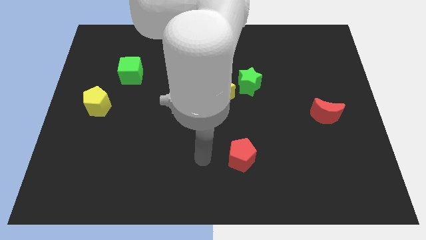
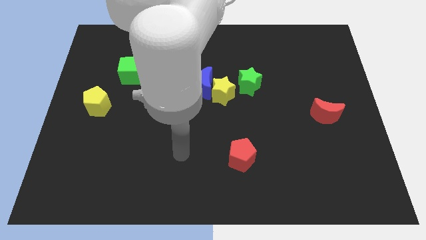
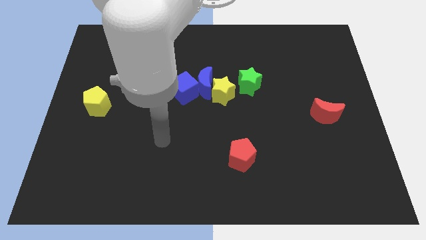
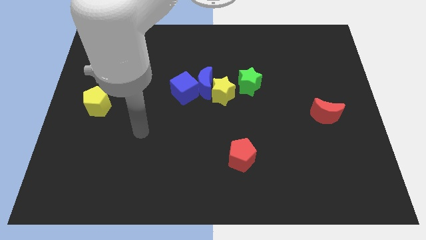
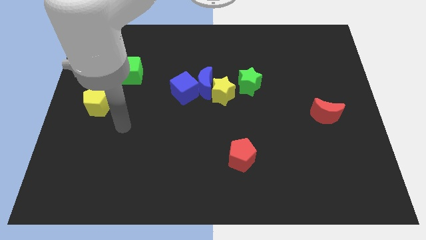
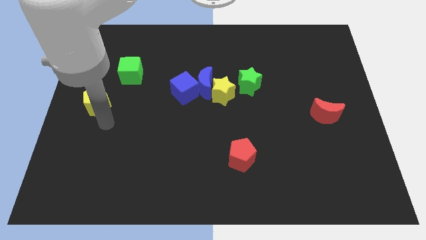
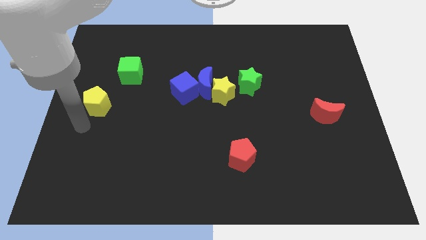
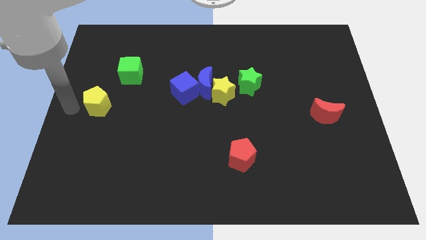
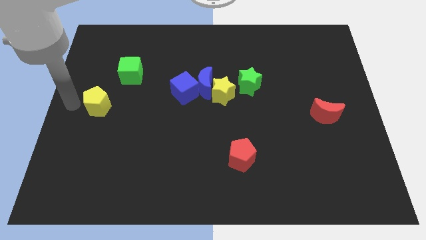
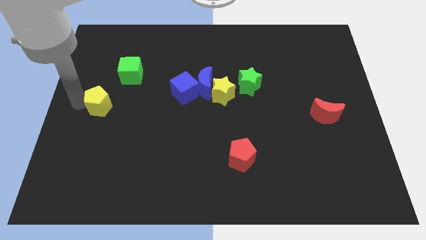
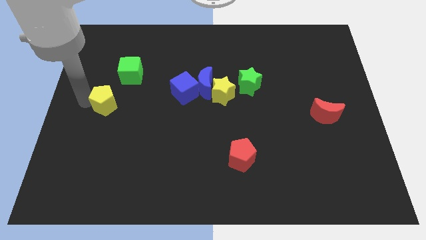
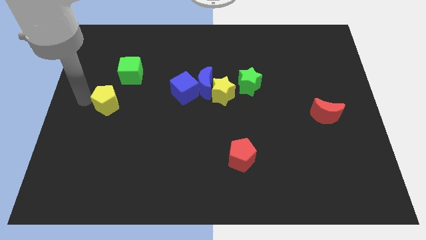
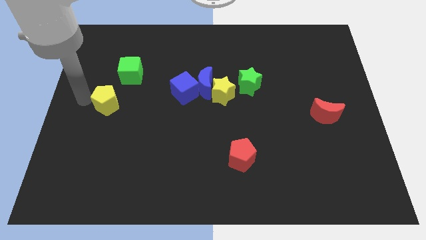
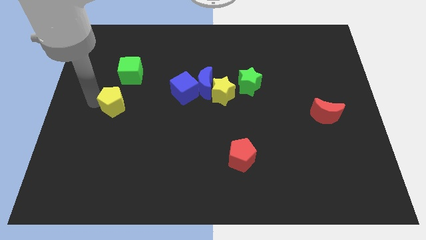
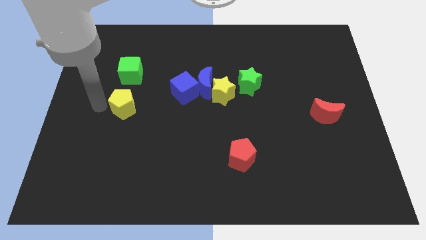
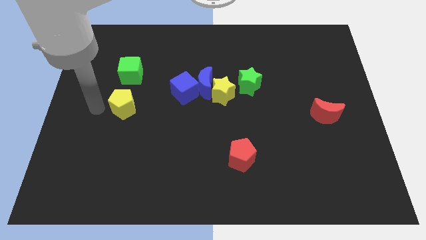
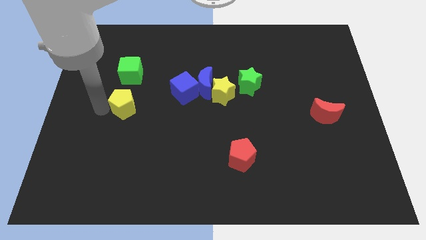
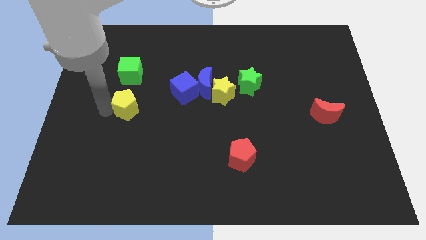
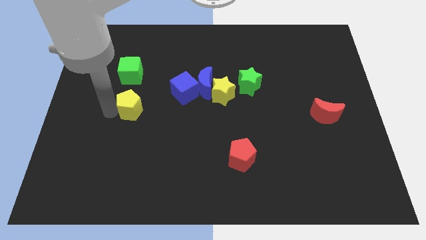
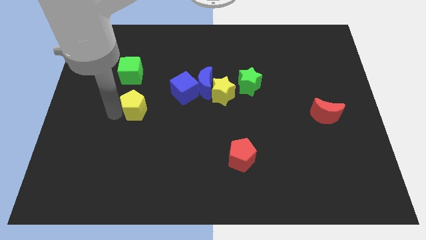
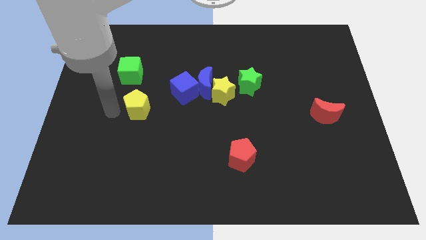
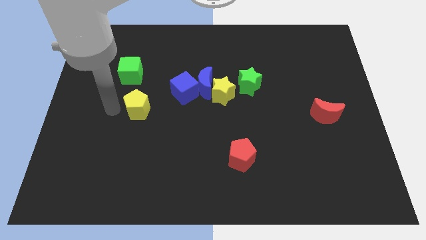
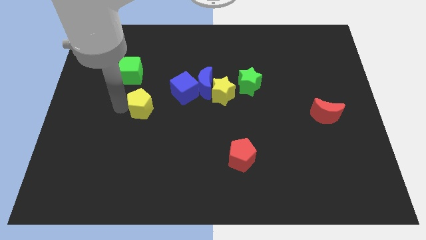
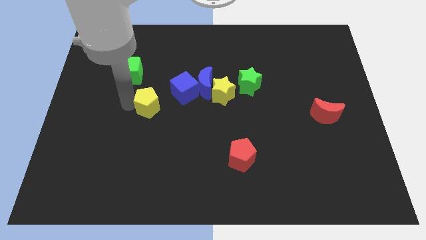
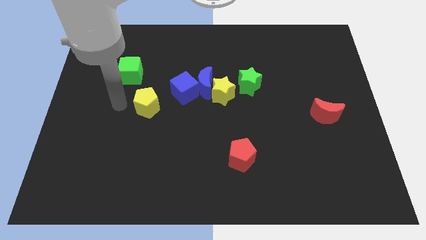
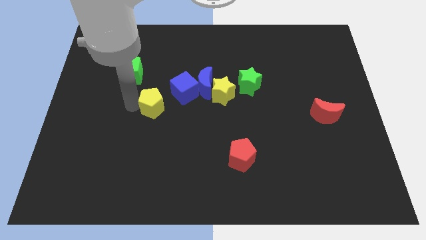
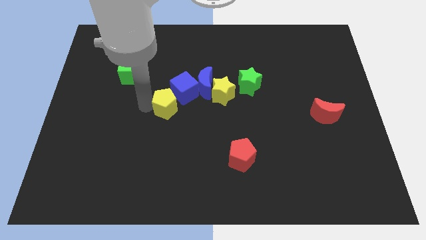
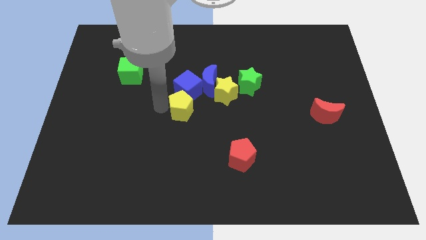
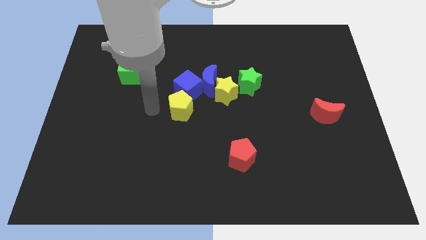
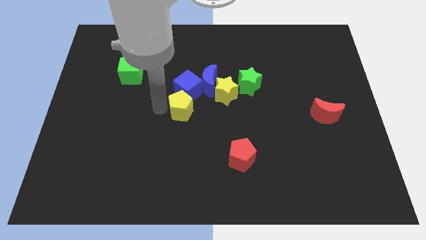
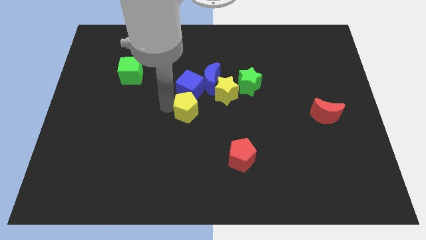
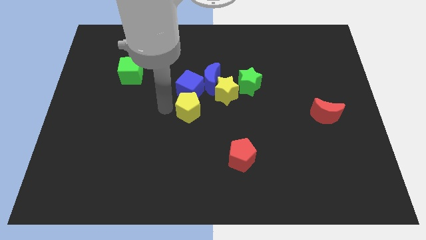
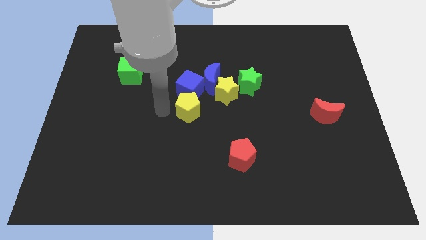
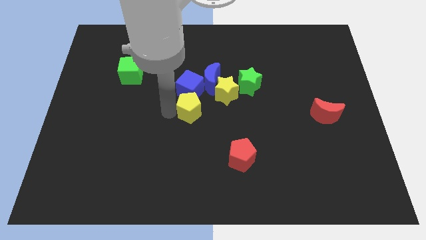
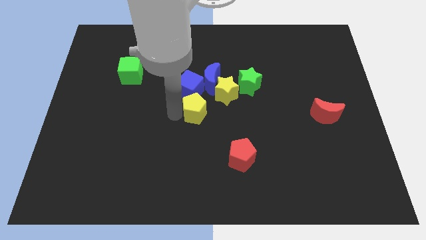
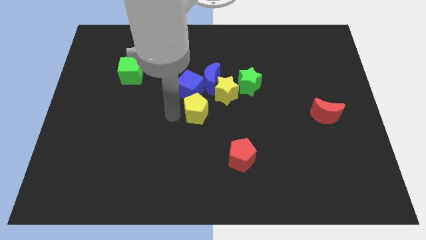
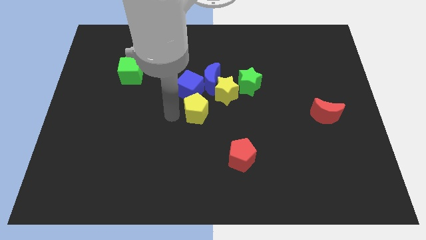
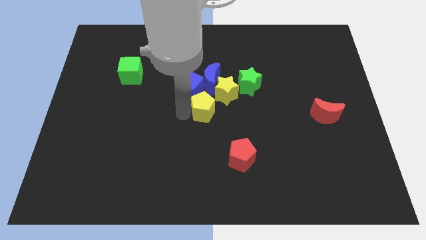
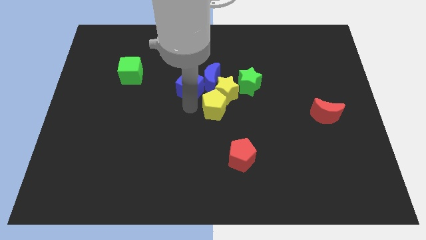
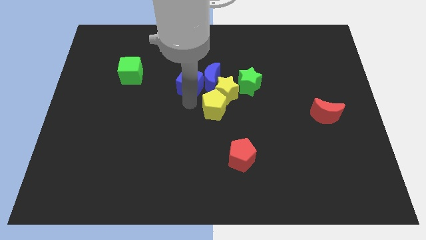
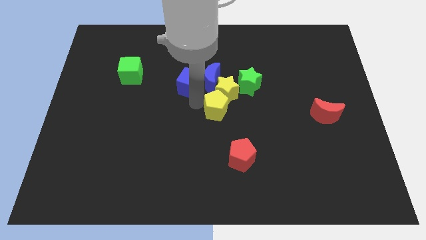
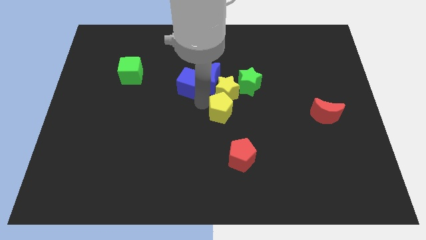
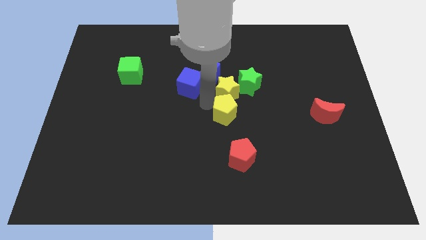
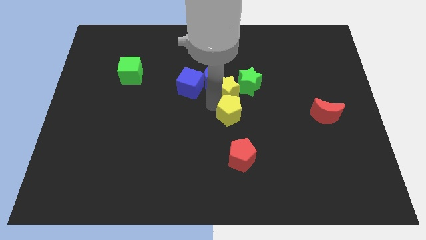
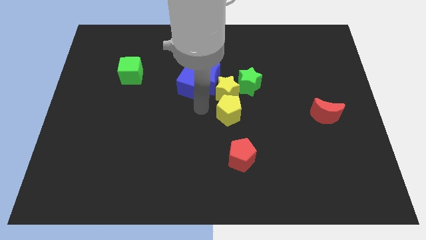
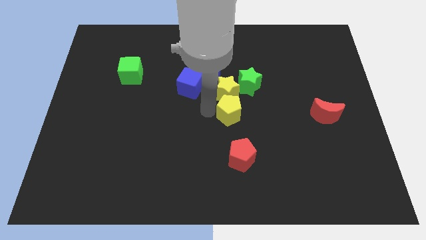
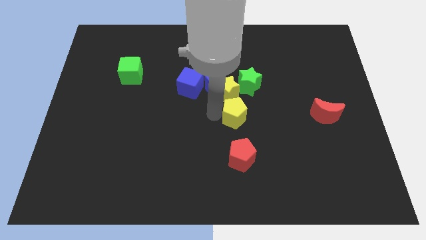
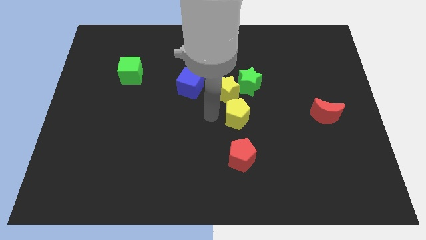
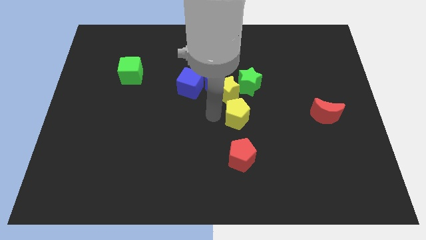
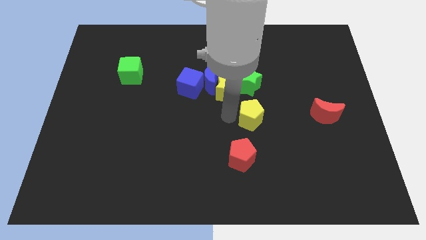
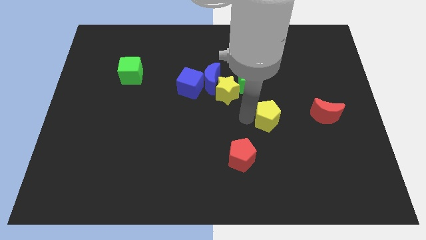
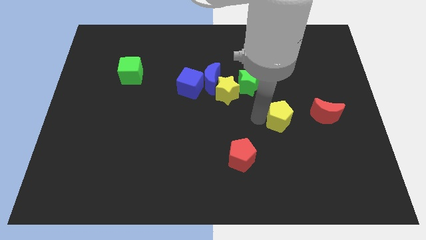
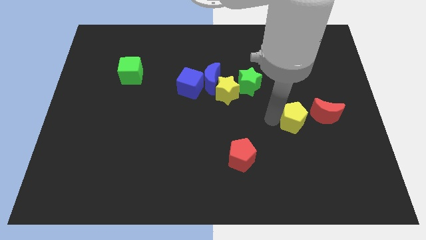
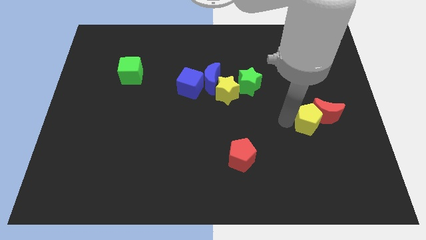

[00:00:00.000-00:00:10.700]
put the yellow pentagon to the red moon

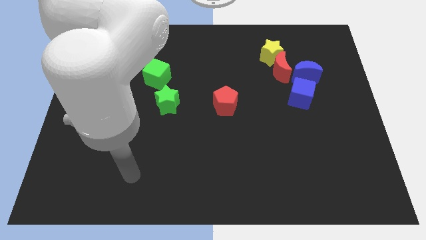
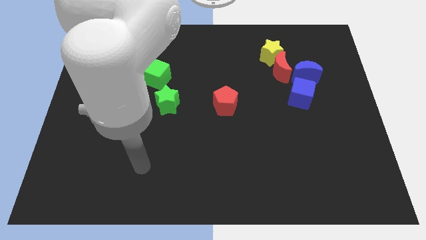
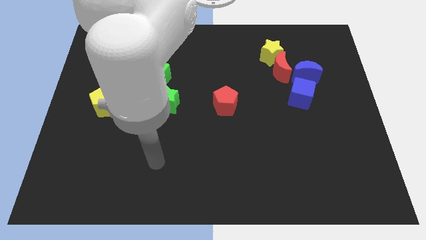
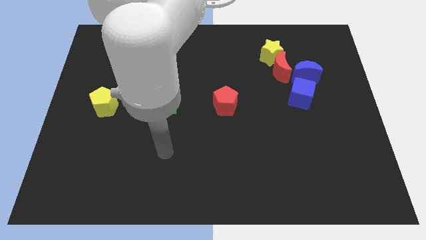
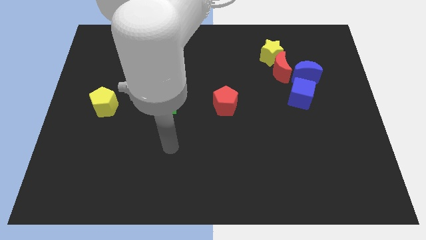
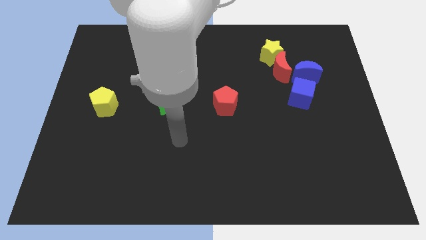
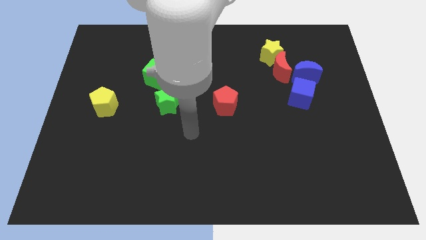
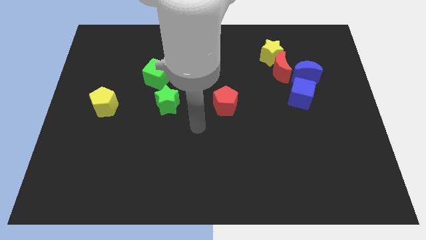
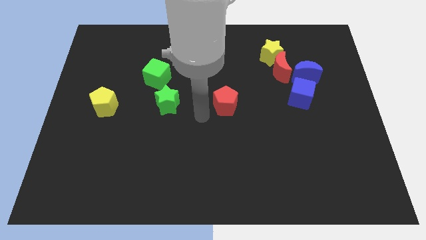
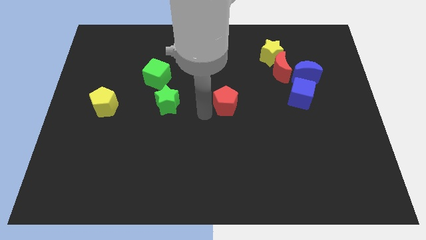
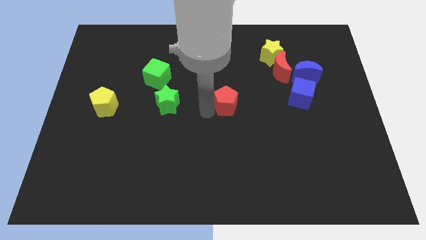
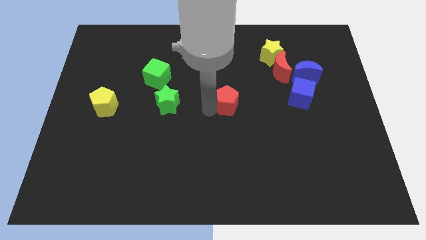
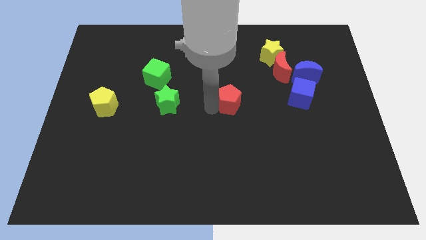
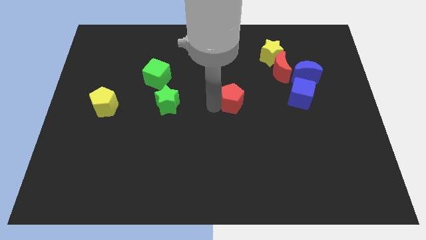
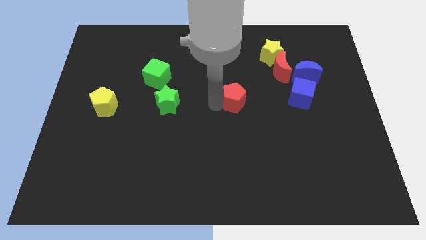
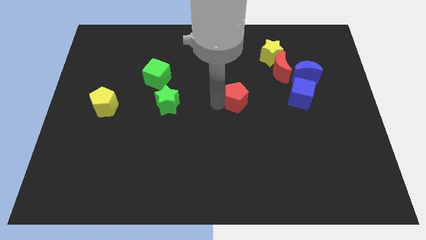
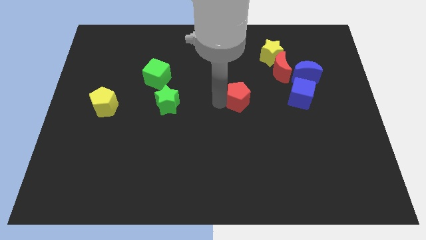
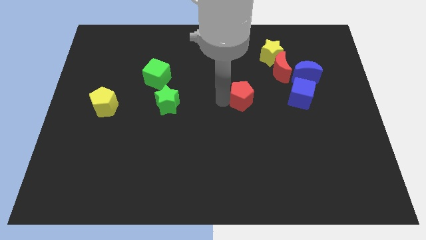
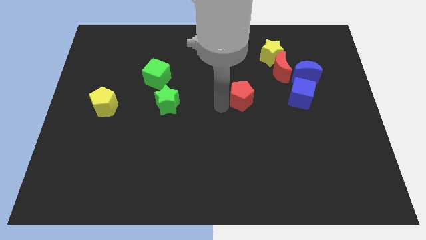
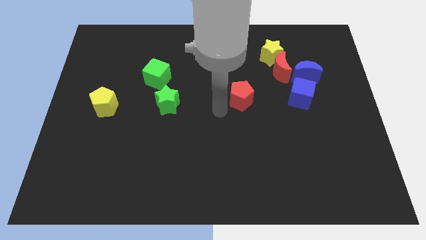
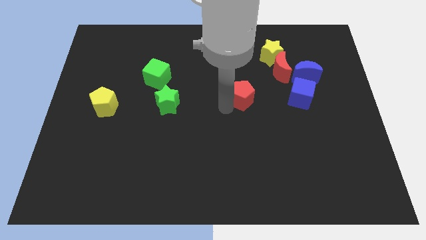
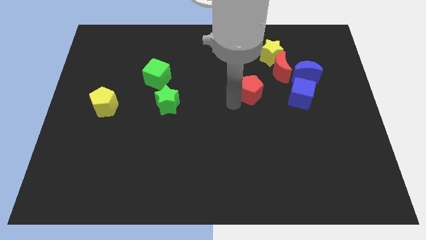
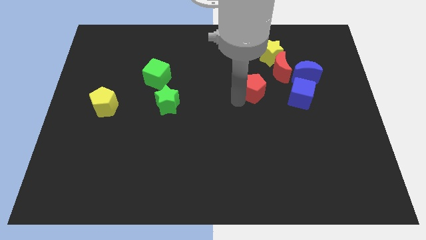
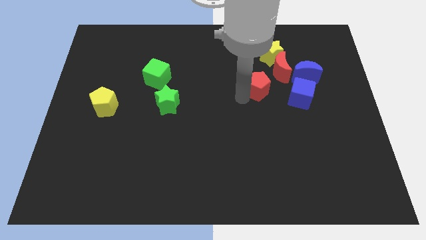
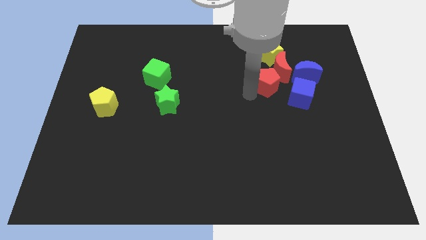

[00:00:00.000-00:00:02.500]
push the red pentagon towards the red moon
